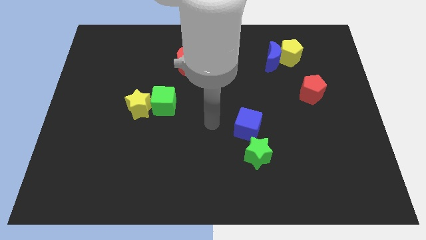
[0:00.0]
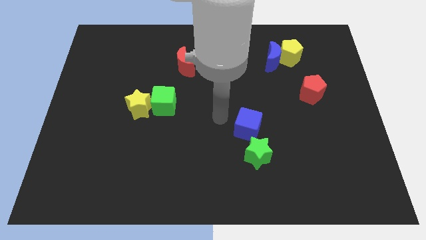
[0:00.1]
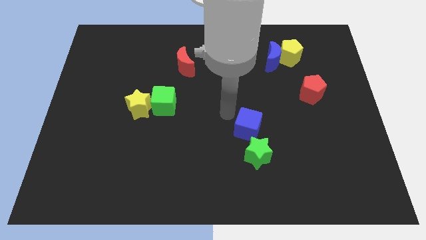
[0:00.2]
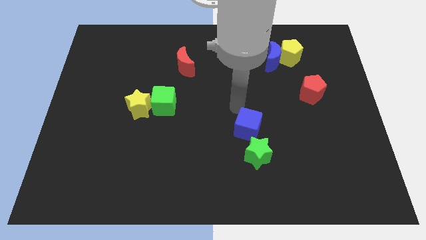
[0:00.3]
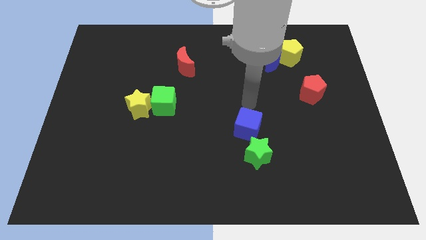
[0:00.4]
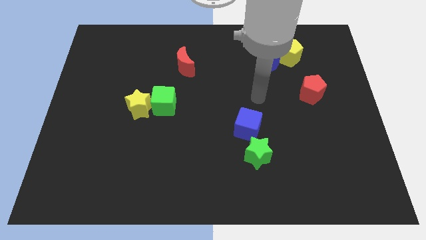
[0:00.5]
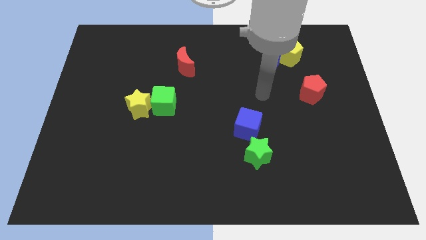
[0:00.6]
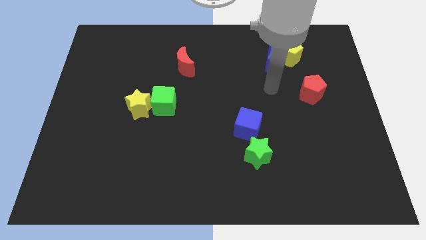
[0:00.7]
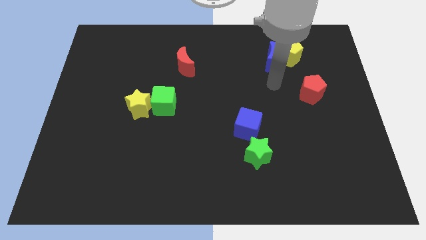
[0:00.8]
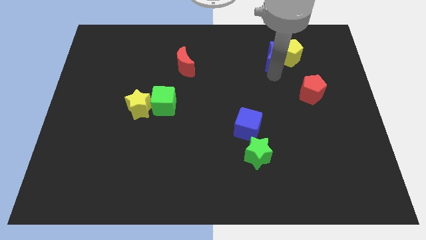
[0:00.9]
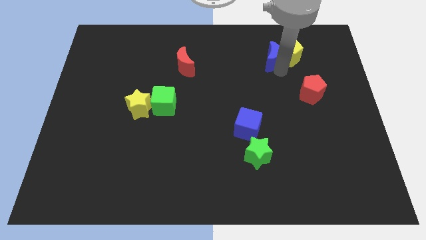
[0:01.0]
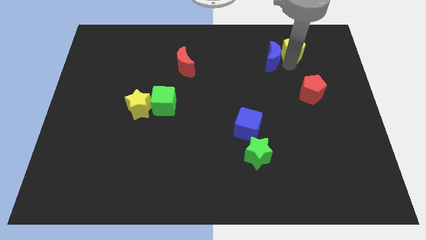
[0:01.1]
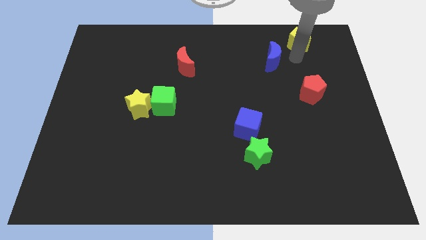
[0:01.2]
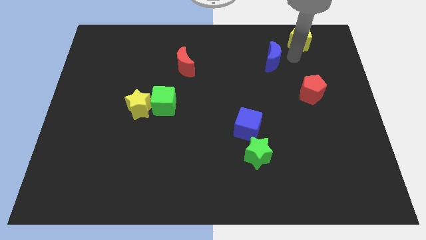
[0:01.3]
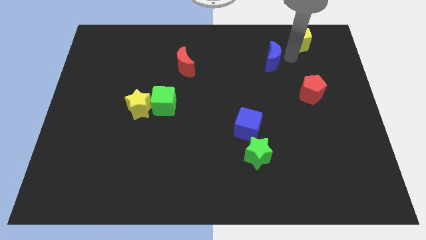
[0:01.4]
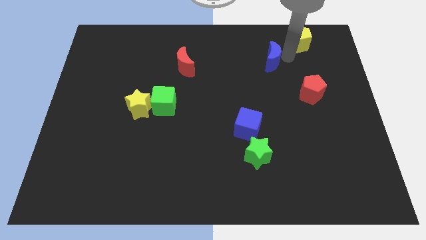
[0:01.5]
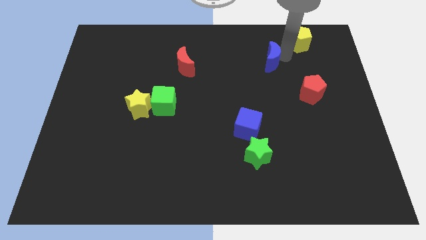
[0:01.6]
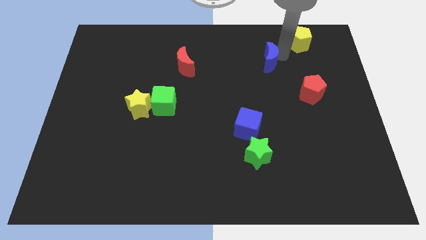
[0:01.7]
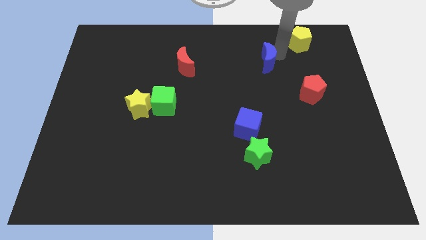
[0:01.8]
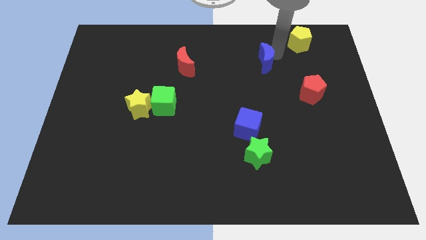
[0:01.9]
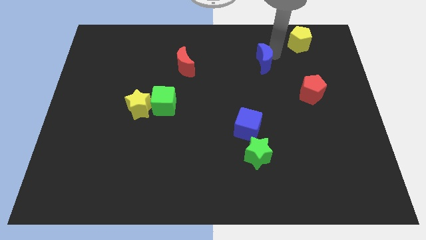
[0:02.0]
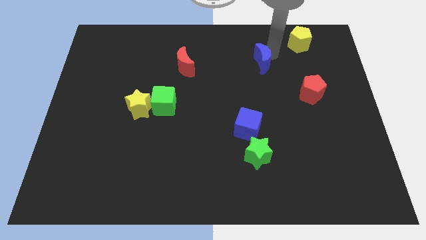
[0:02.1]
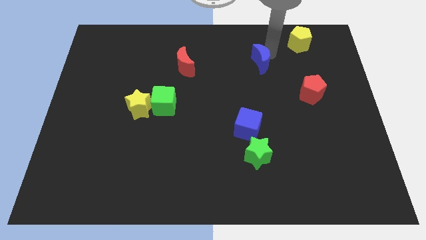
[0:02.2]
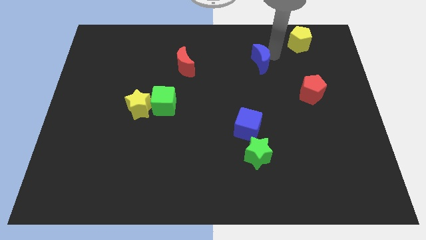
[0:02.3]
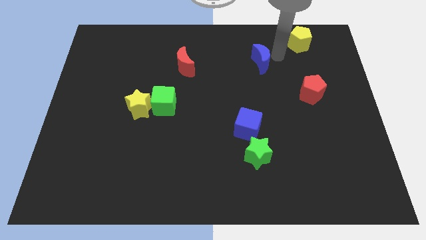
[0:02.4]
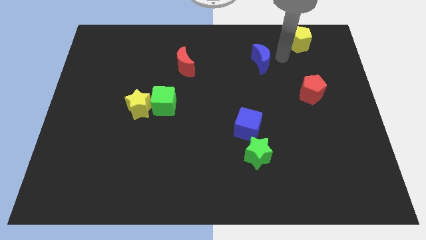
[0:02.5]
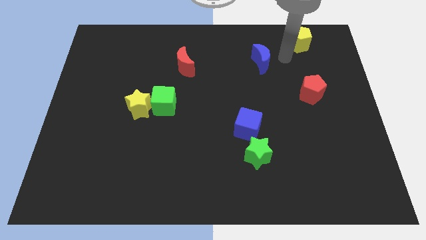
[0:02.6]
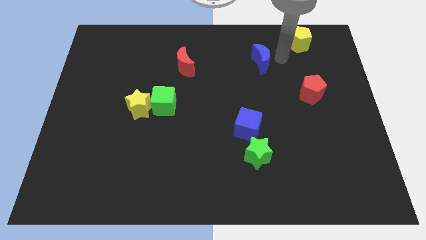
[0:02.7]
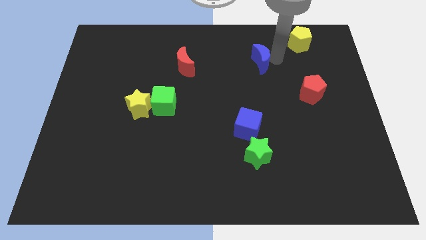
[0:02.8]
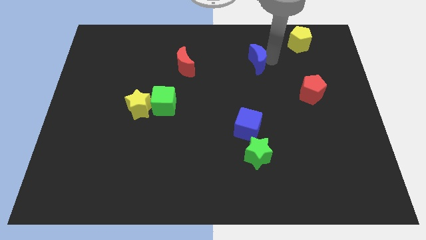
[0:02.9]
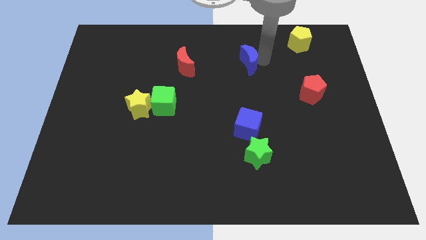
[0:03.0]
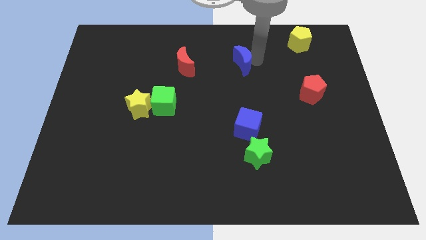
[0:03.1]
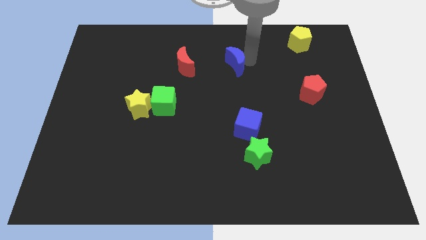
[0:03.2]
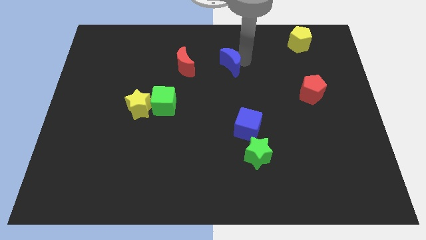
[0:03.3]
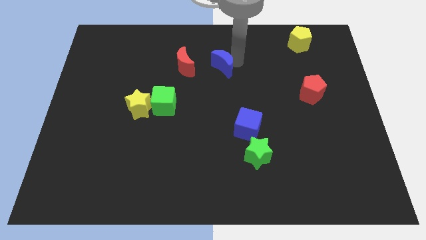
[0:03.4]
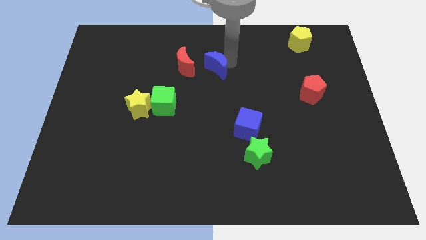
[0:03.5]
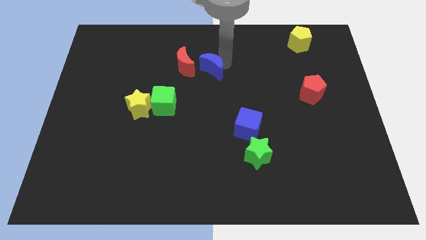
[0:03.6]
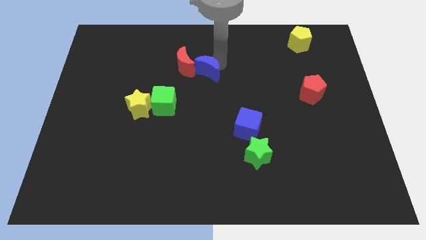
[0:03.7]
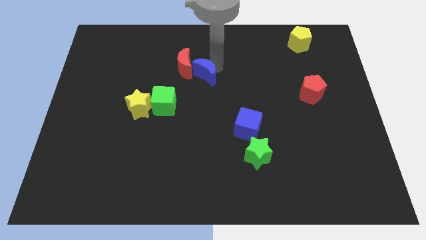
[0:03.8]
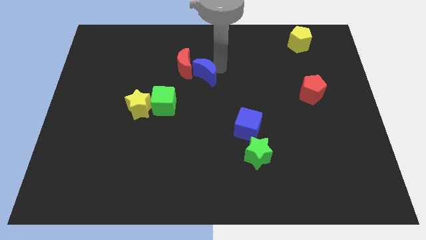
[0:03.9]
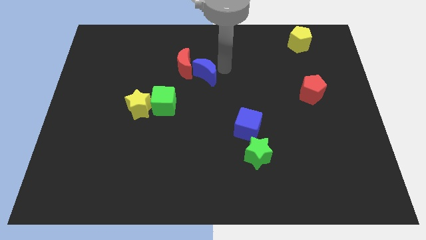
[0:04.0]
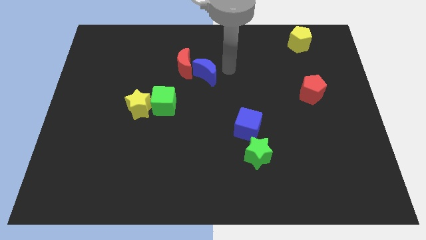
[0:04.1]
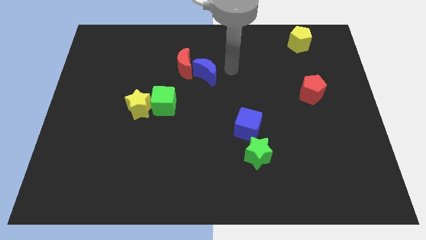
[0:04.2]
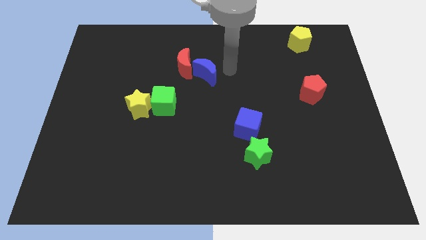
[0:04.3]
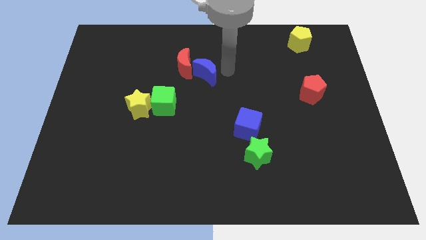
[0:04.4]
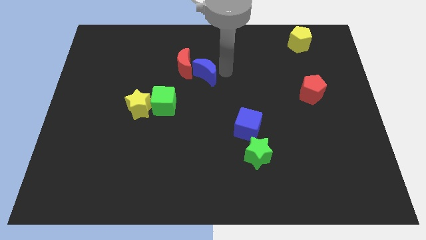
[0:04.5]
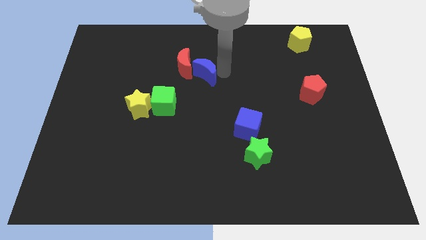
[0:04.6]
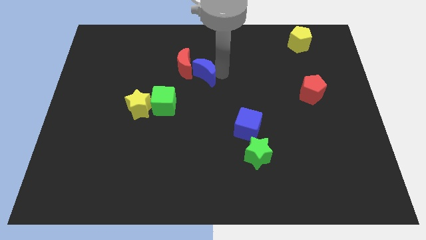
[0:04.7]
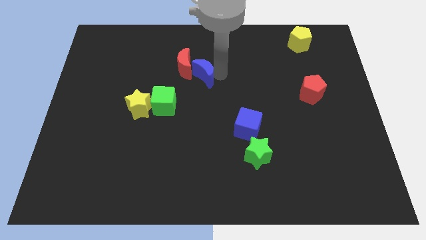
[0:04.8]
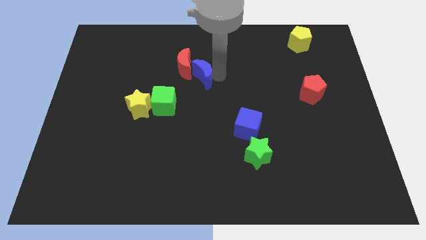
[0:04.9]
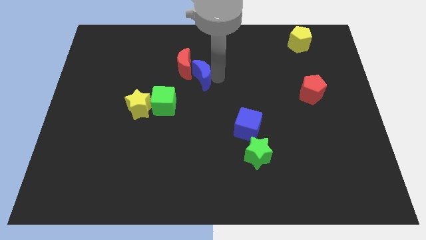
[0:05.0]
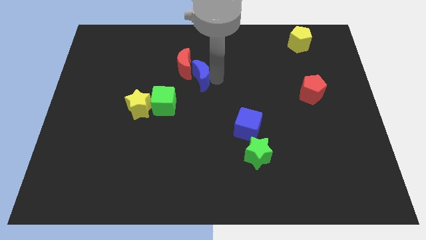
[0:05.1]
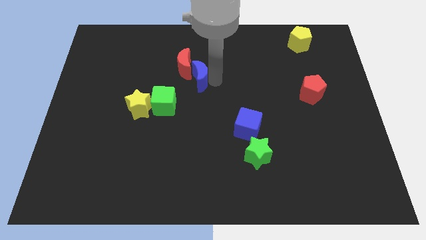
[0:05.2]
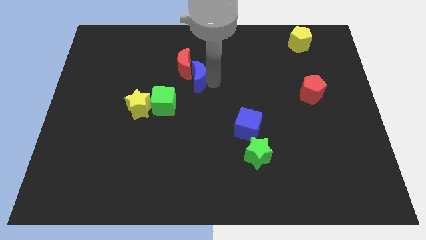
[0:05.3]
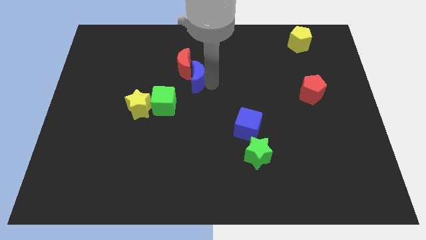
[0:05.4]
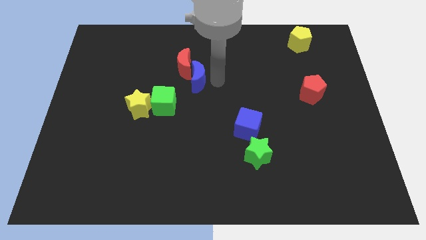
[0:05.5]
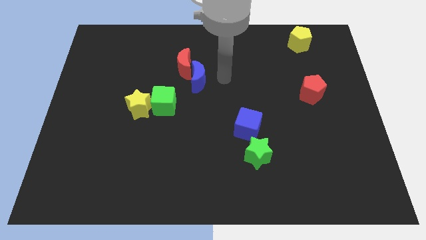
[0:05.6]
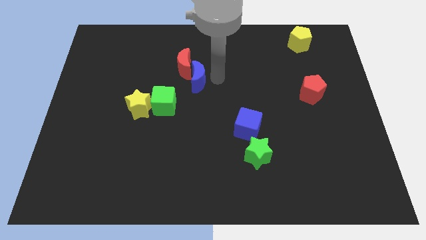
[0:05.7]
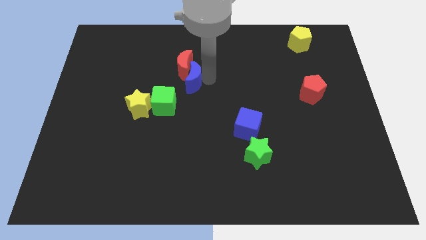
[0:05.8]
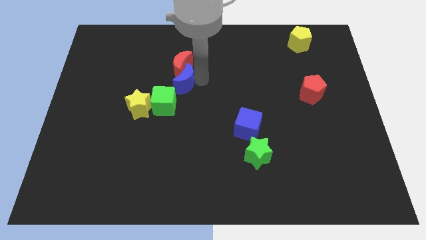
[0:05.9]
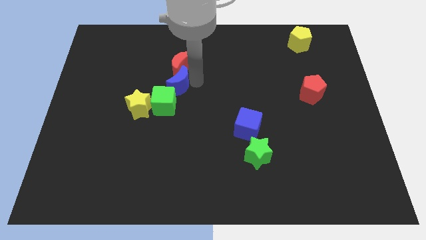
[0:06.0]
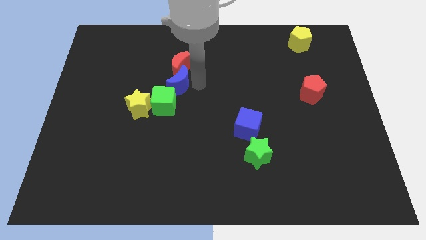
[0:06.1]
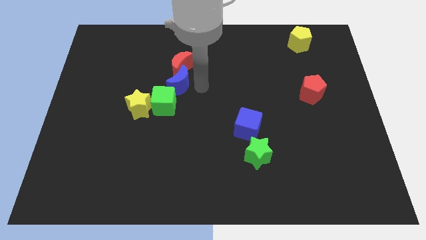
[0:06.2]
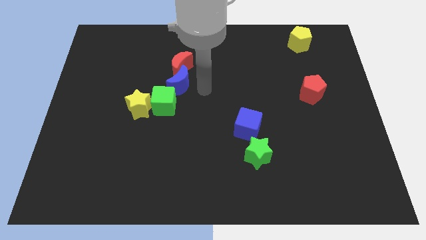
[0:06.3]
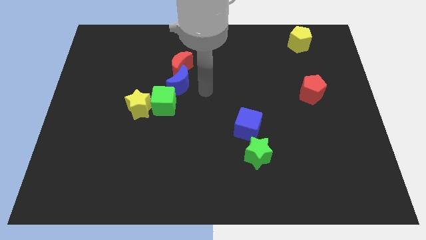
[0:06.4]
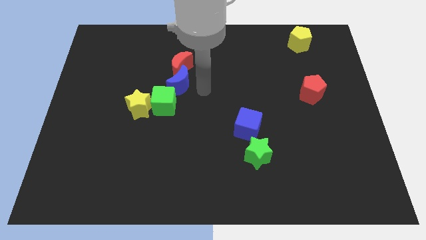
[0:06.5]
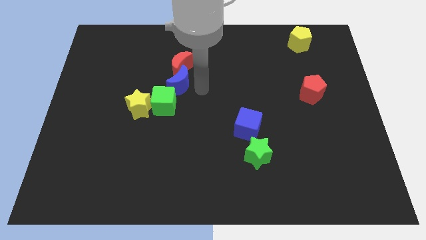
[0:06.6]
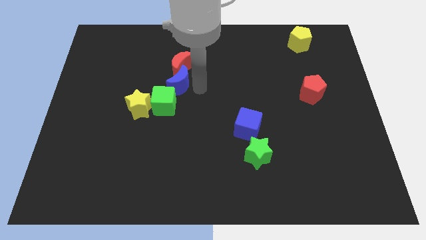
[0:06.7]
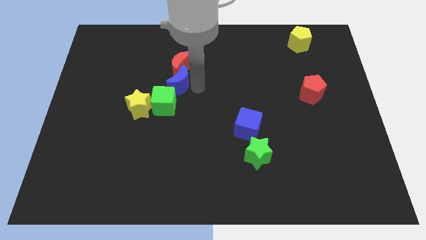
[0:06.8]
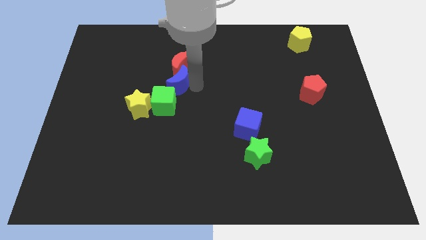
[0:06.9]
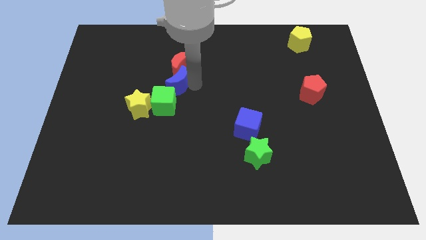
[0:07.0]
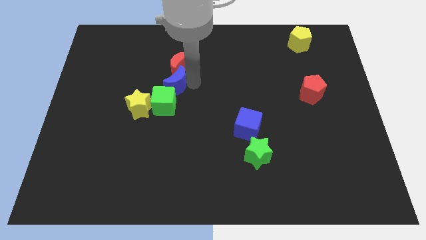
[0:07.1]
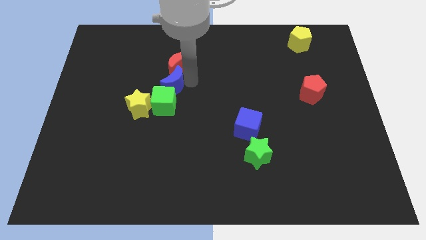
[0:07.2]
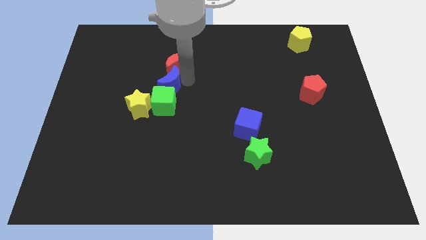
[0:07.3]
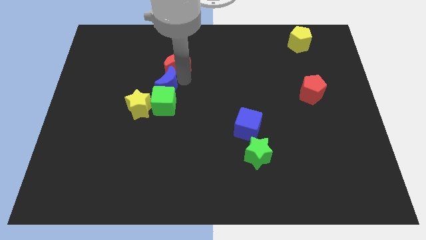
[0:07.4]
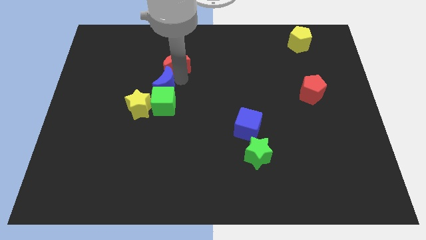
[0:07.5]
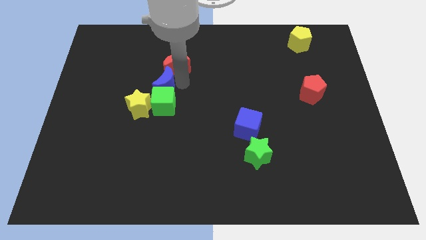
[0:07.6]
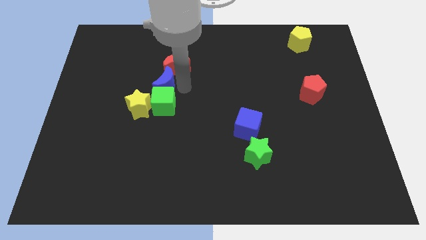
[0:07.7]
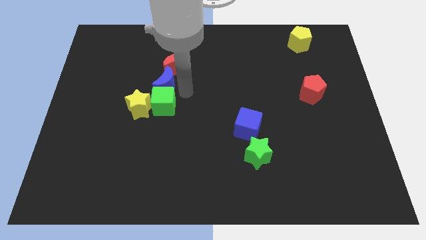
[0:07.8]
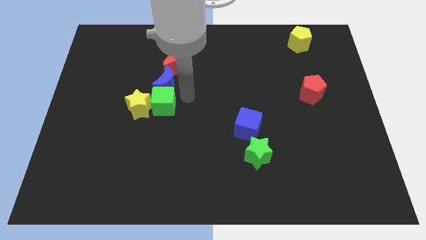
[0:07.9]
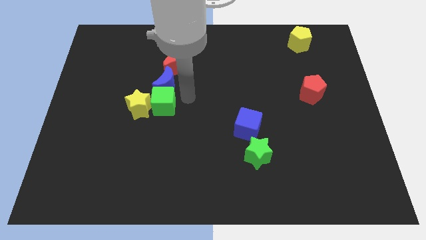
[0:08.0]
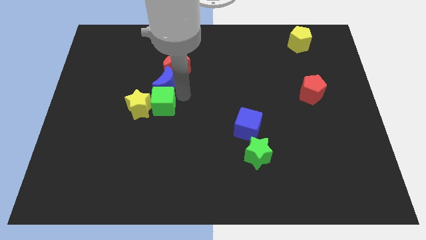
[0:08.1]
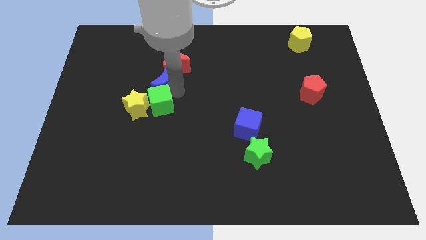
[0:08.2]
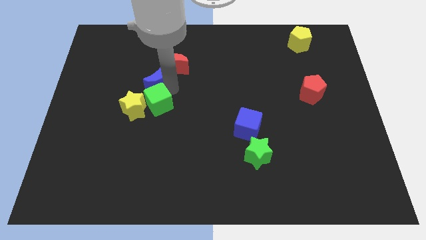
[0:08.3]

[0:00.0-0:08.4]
push the blue moon to the top side of the yellow star
